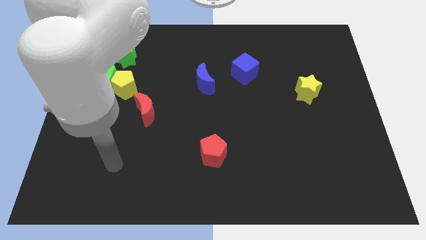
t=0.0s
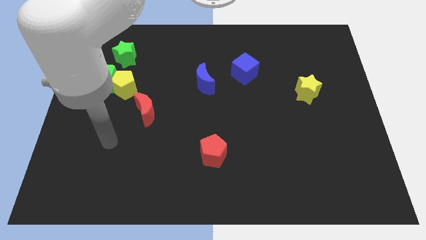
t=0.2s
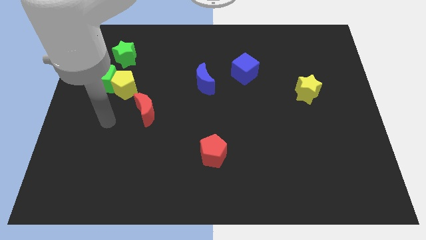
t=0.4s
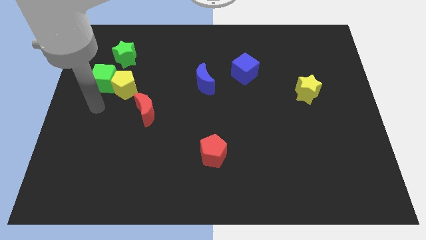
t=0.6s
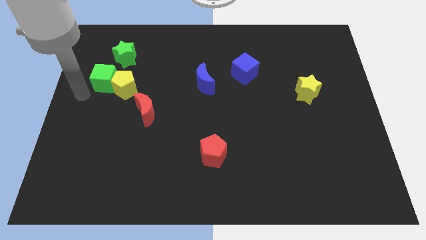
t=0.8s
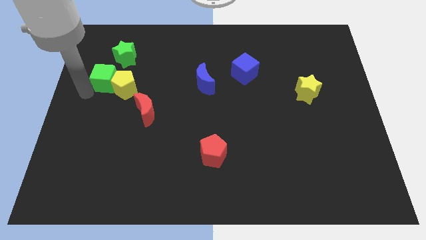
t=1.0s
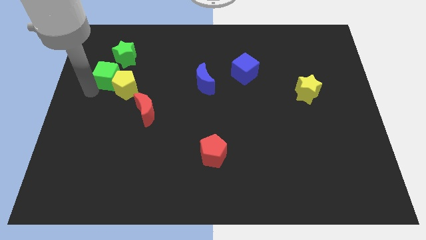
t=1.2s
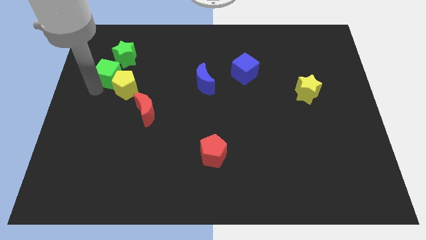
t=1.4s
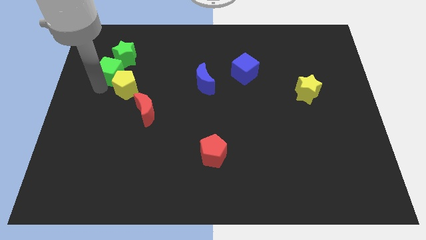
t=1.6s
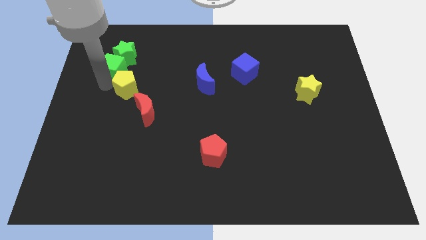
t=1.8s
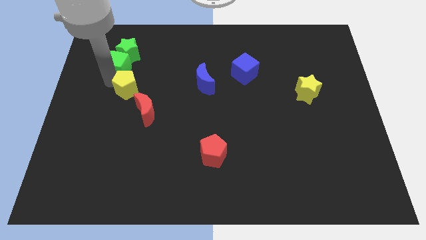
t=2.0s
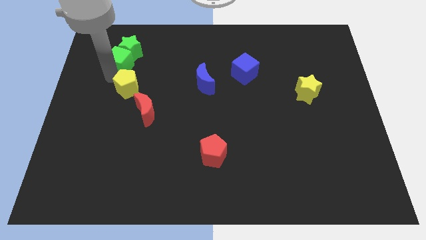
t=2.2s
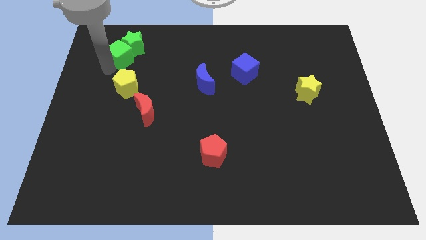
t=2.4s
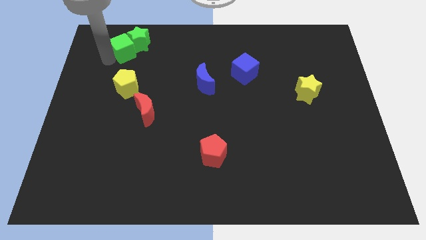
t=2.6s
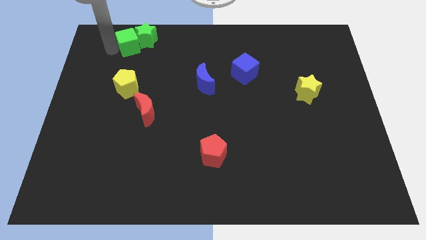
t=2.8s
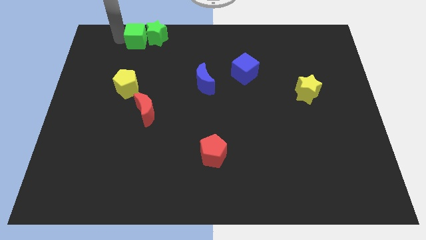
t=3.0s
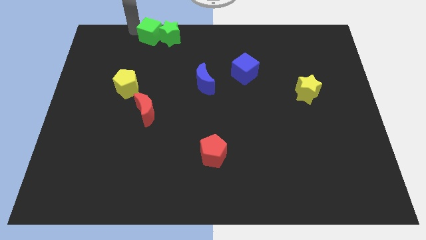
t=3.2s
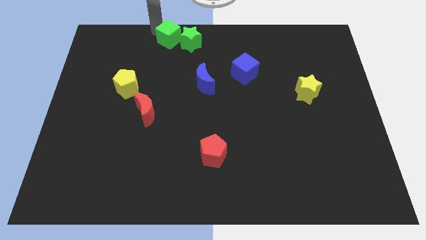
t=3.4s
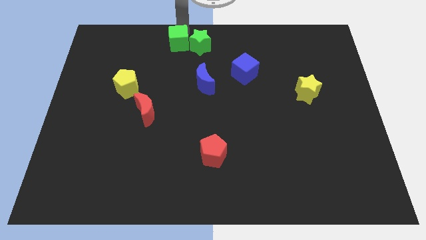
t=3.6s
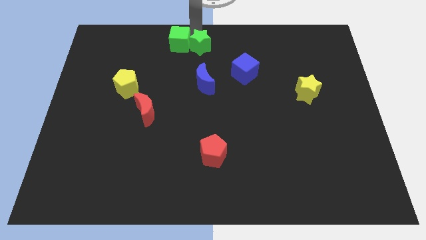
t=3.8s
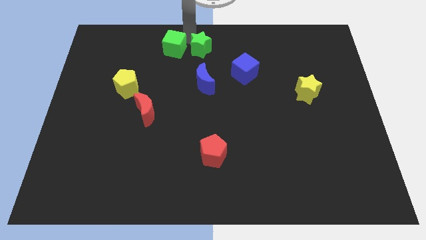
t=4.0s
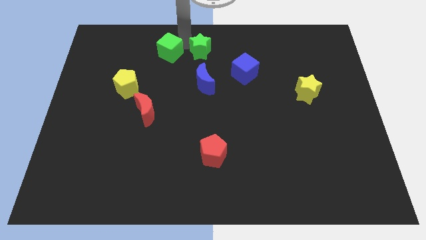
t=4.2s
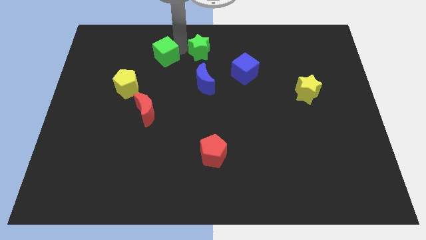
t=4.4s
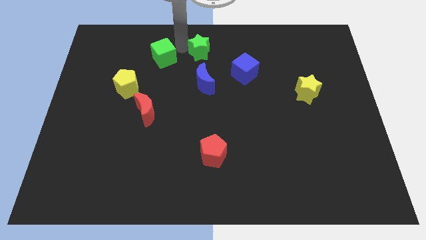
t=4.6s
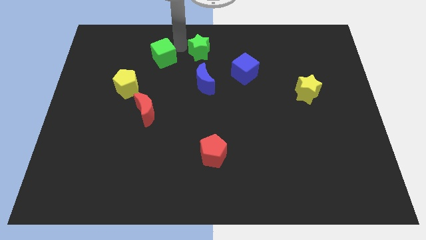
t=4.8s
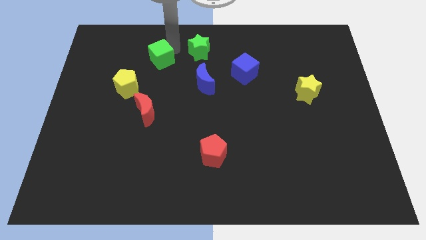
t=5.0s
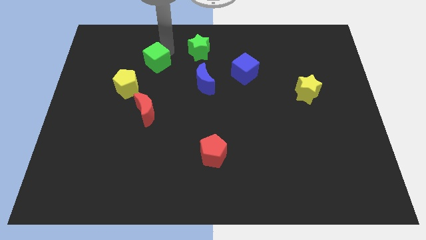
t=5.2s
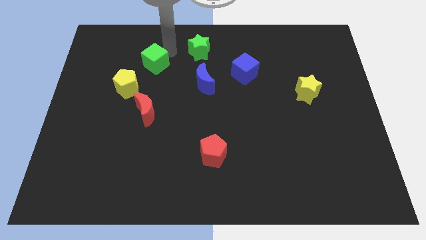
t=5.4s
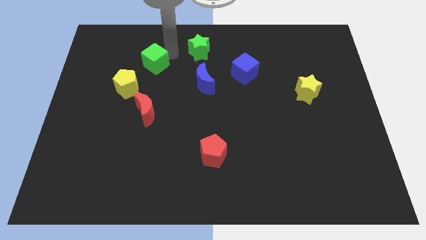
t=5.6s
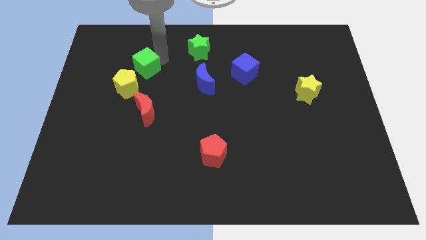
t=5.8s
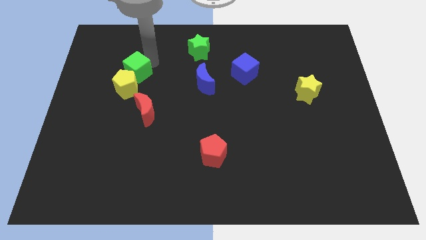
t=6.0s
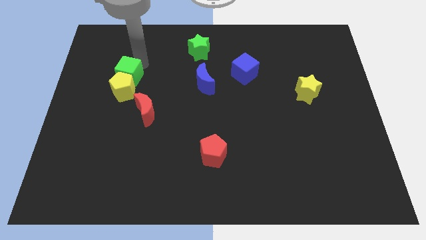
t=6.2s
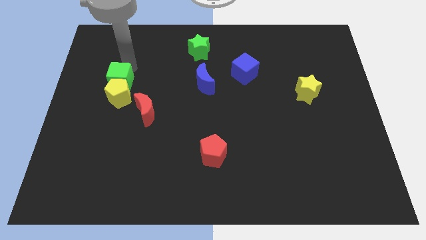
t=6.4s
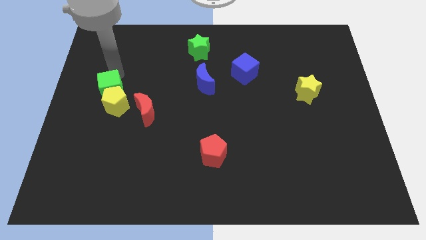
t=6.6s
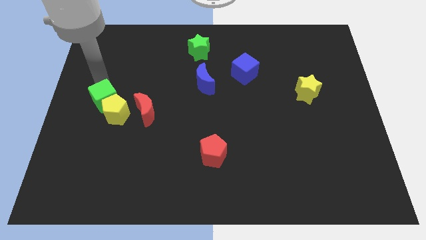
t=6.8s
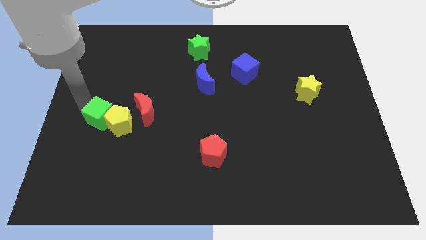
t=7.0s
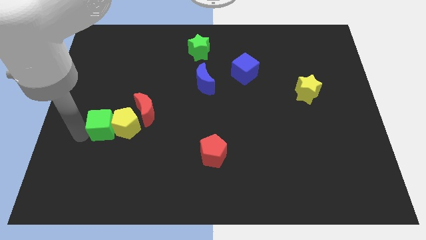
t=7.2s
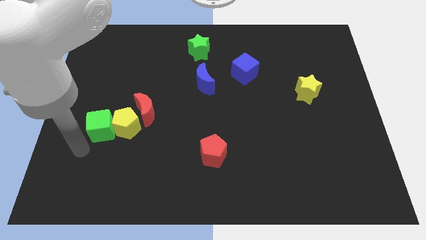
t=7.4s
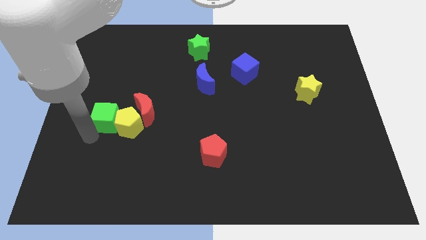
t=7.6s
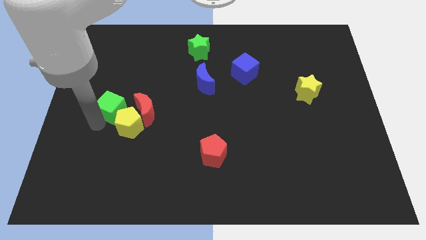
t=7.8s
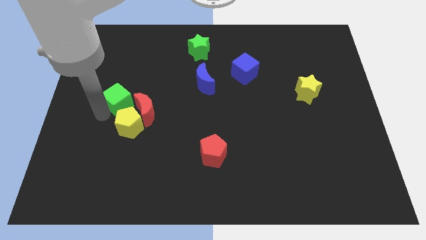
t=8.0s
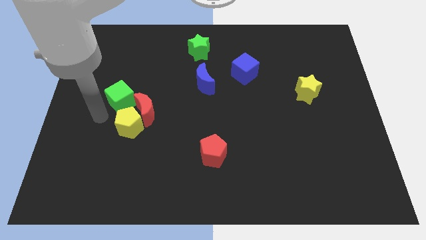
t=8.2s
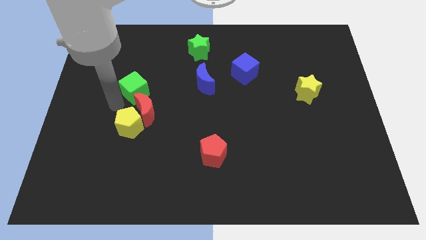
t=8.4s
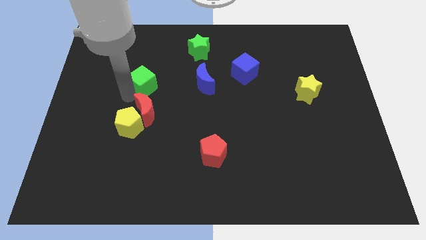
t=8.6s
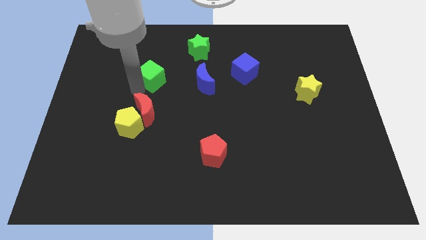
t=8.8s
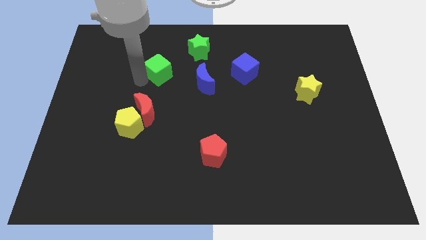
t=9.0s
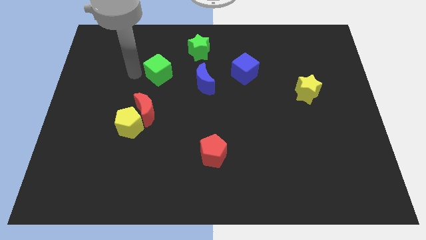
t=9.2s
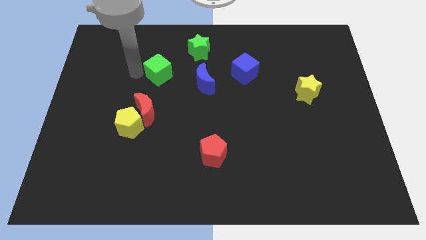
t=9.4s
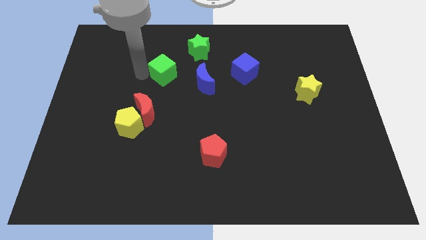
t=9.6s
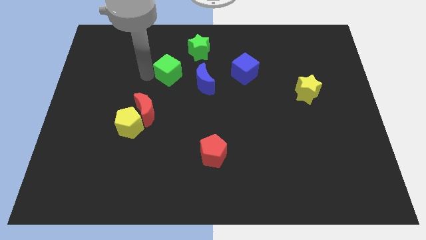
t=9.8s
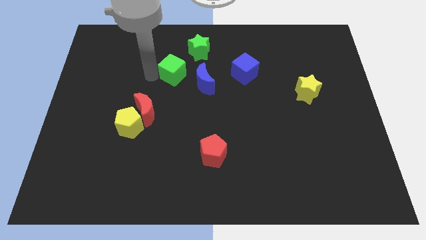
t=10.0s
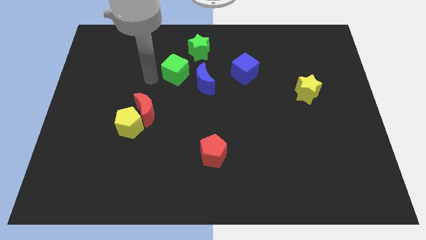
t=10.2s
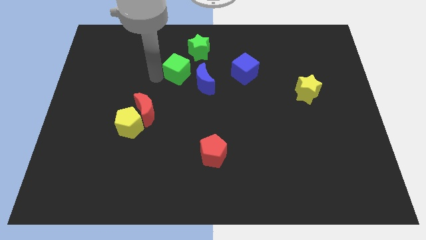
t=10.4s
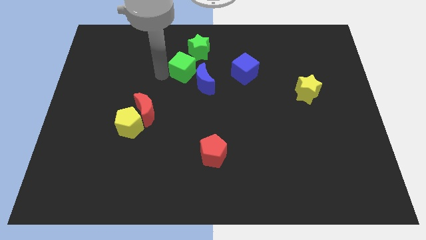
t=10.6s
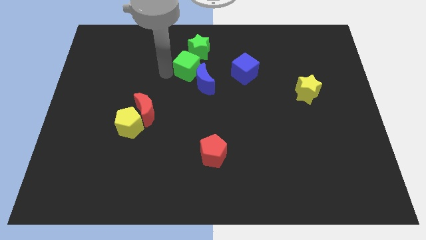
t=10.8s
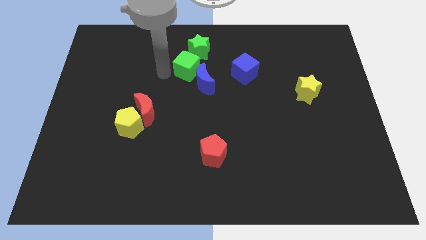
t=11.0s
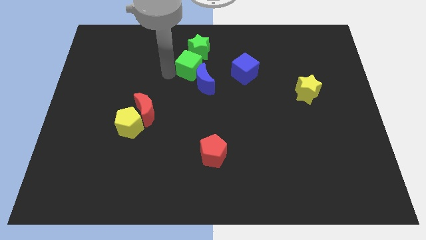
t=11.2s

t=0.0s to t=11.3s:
slide the green cube right

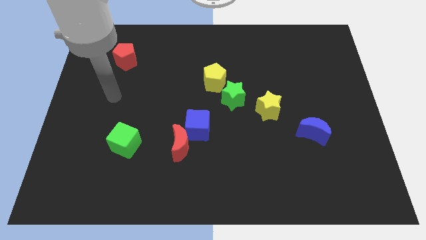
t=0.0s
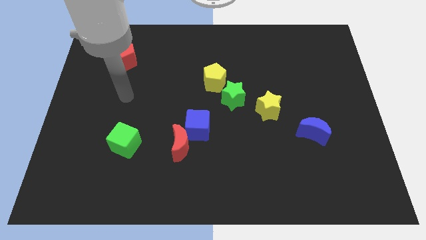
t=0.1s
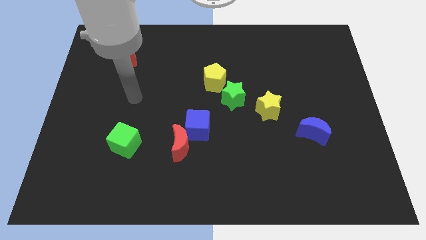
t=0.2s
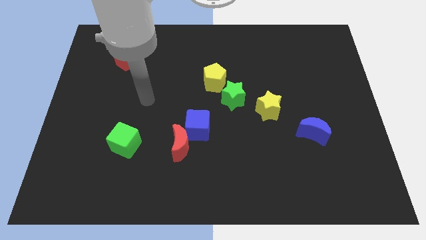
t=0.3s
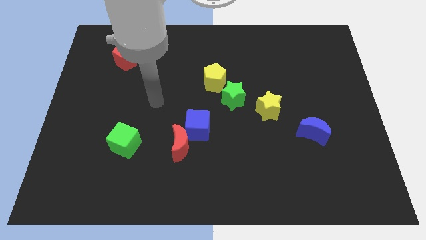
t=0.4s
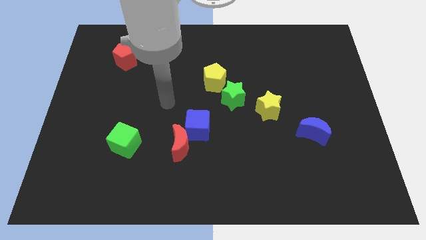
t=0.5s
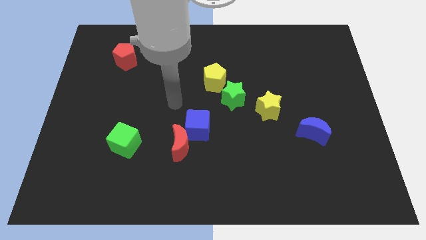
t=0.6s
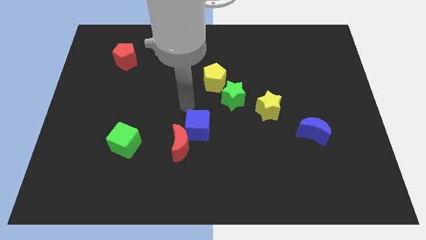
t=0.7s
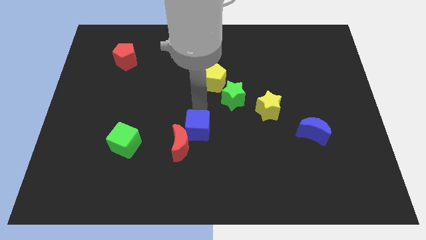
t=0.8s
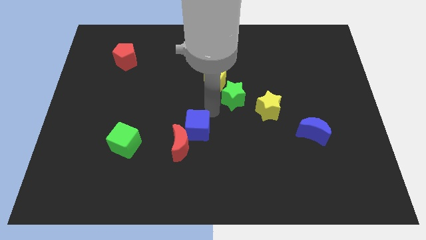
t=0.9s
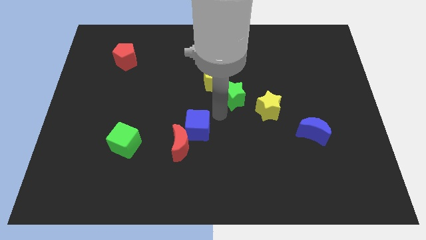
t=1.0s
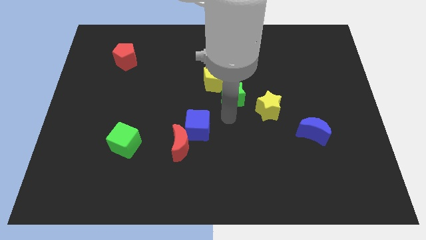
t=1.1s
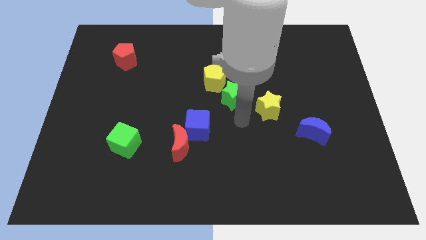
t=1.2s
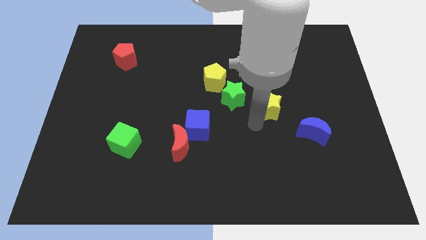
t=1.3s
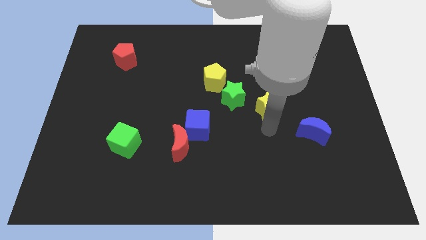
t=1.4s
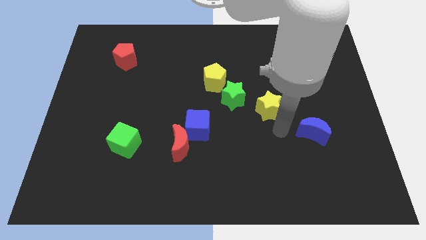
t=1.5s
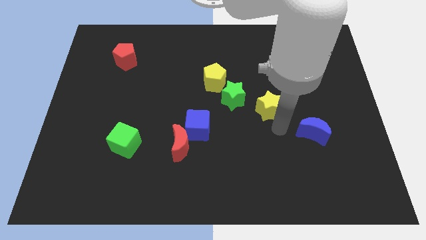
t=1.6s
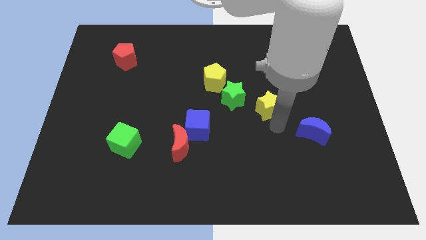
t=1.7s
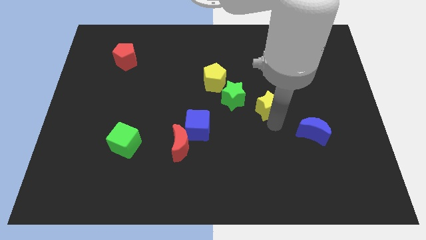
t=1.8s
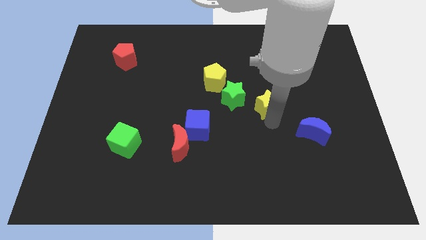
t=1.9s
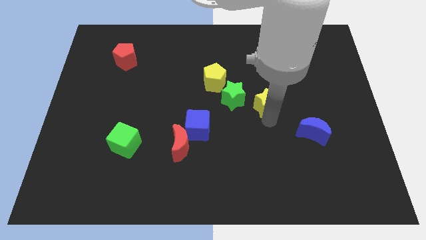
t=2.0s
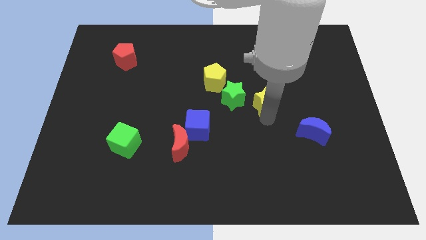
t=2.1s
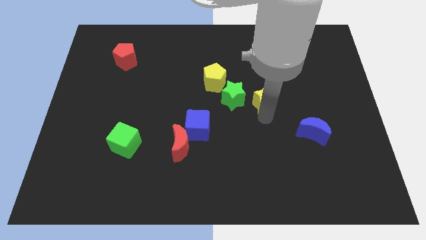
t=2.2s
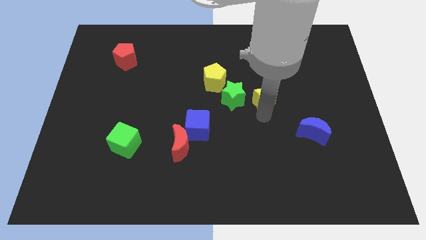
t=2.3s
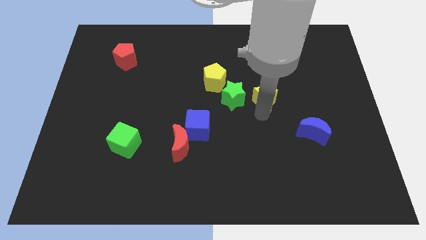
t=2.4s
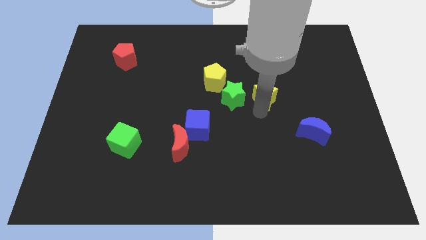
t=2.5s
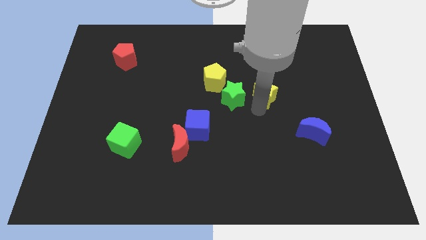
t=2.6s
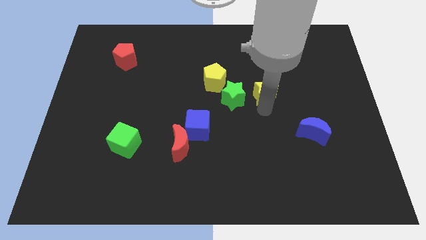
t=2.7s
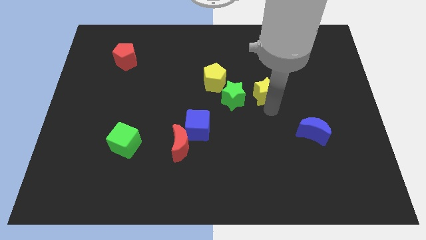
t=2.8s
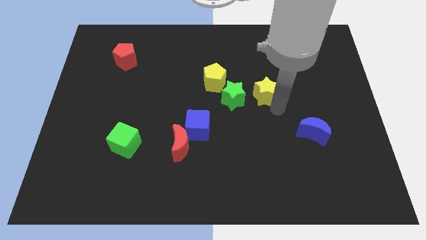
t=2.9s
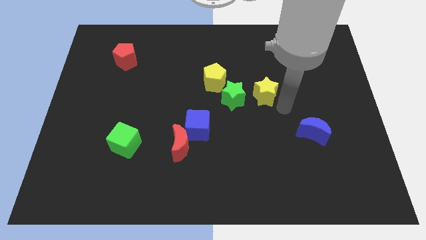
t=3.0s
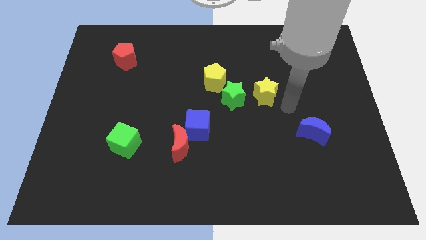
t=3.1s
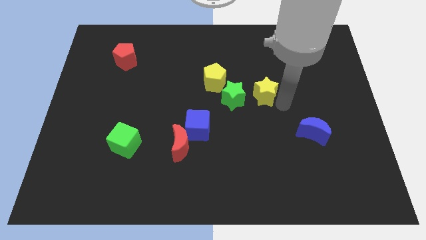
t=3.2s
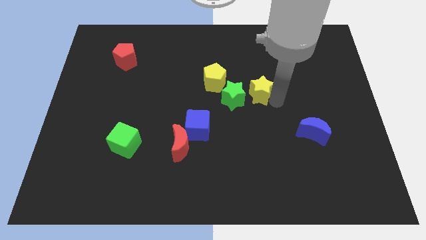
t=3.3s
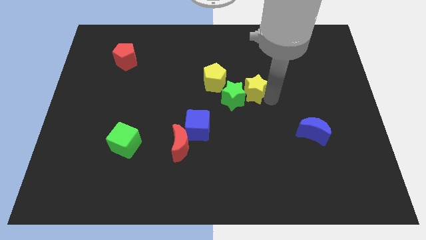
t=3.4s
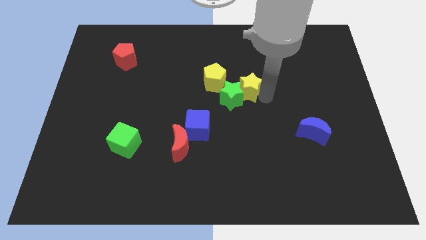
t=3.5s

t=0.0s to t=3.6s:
slightly slide the yellow star up and left diagonally
